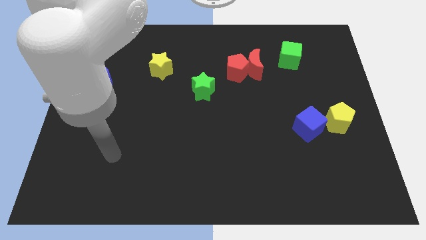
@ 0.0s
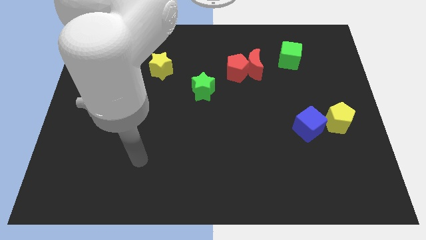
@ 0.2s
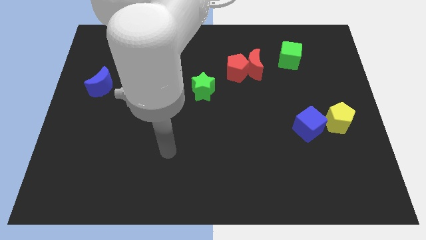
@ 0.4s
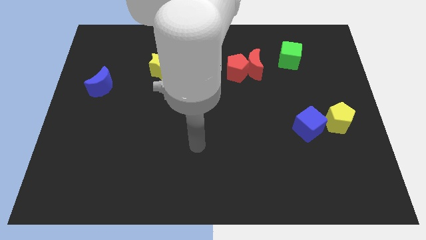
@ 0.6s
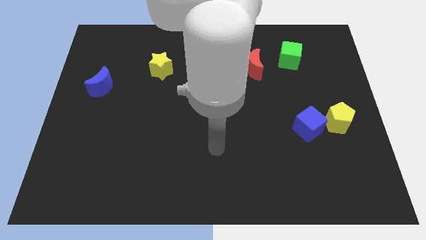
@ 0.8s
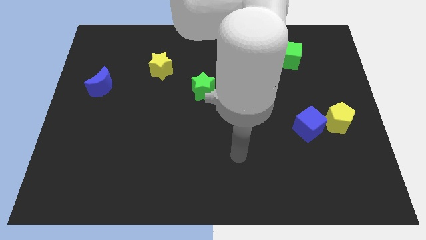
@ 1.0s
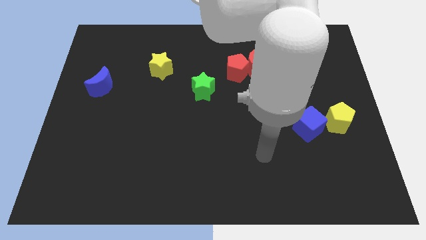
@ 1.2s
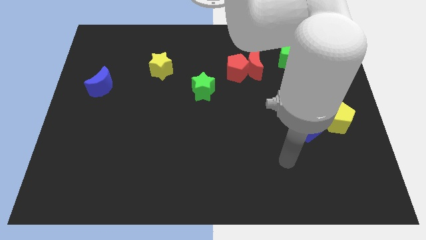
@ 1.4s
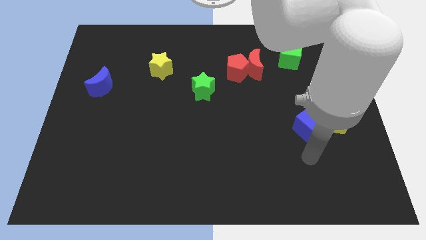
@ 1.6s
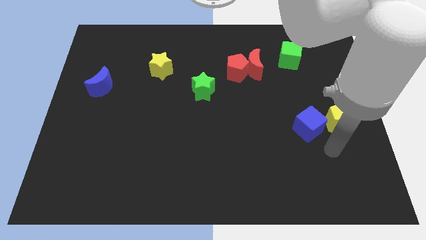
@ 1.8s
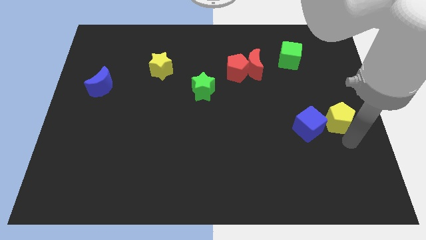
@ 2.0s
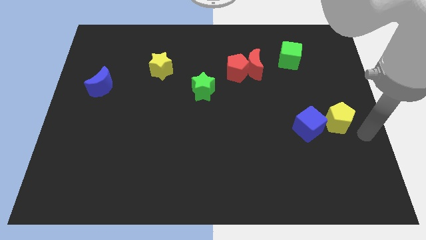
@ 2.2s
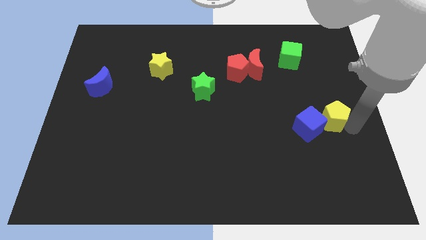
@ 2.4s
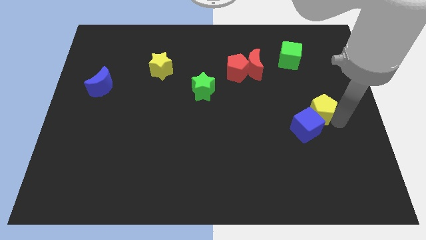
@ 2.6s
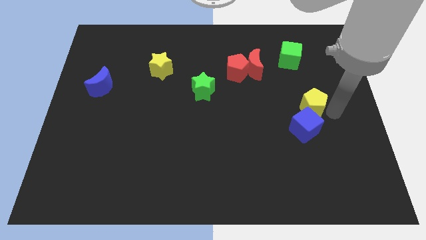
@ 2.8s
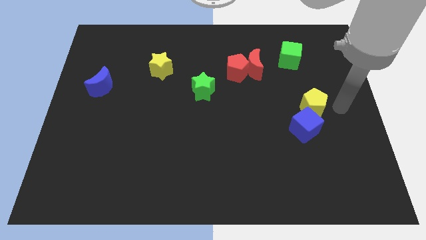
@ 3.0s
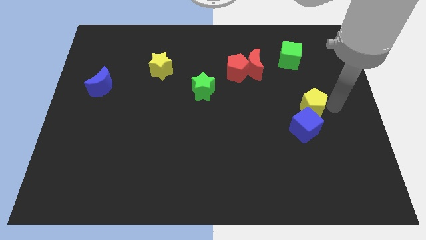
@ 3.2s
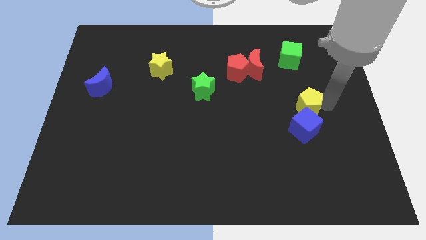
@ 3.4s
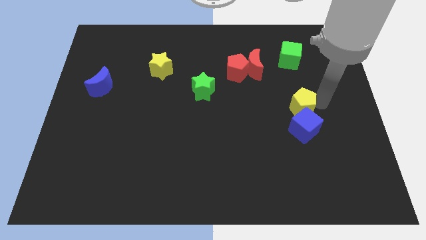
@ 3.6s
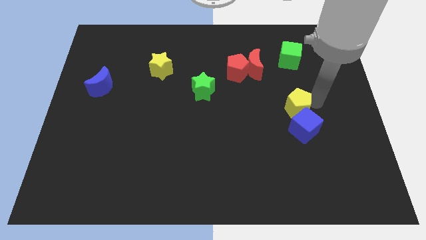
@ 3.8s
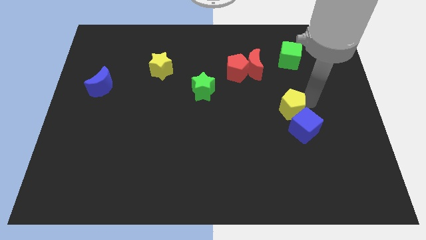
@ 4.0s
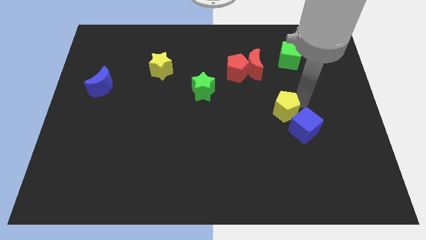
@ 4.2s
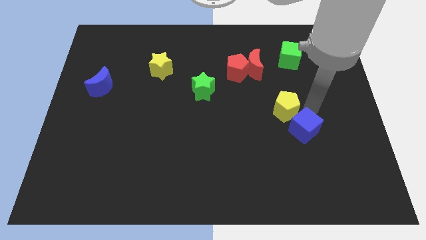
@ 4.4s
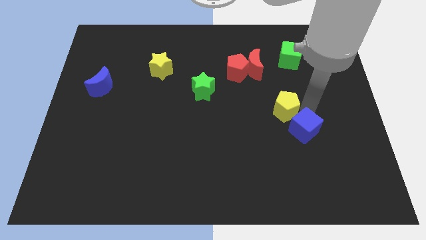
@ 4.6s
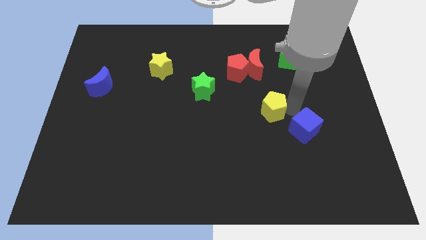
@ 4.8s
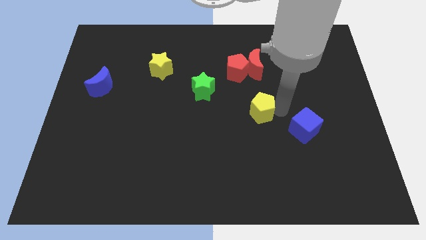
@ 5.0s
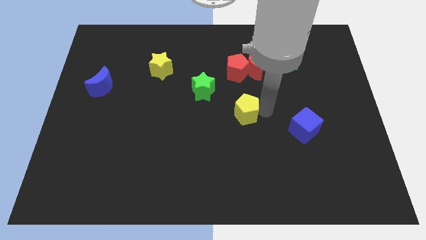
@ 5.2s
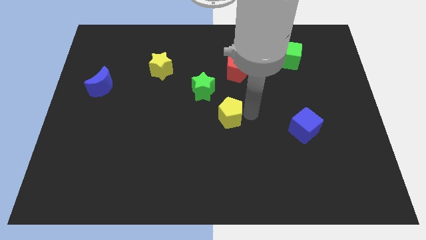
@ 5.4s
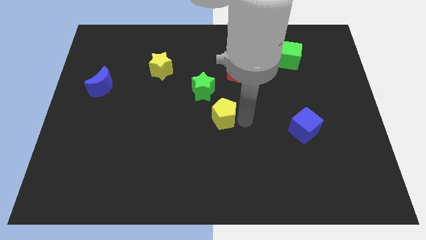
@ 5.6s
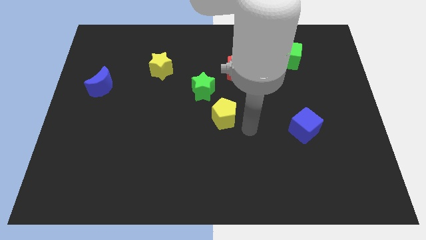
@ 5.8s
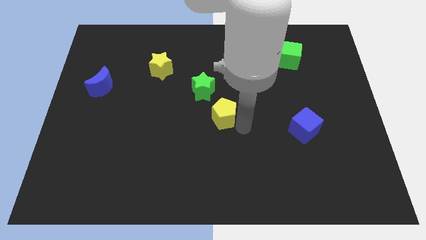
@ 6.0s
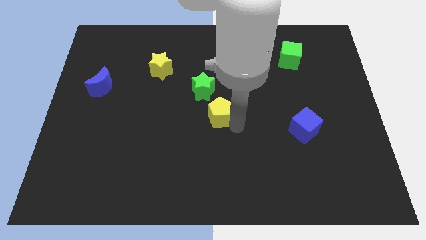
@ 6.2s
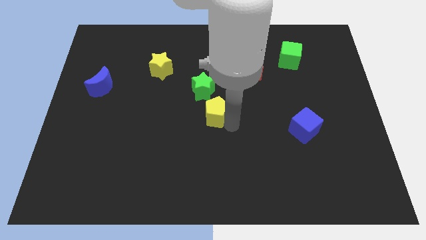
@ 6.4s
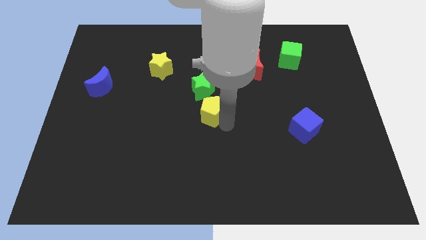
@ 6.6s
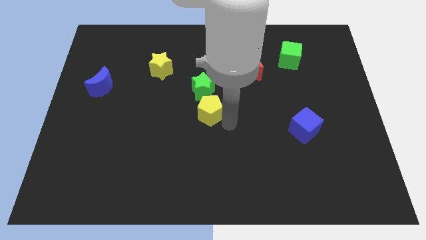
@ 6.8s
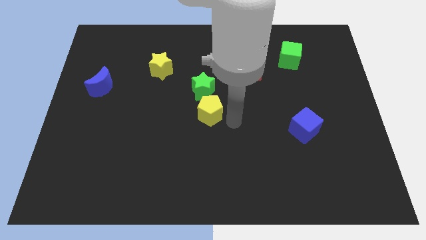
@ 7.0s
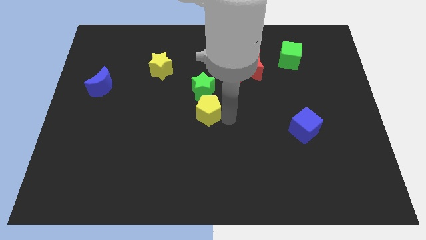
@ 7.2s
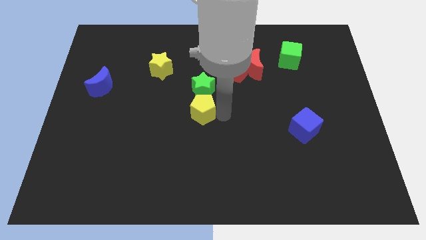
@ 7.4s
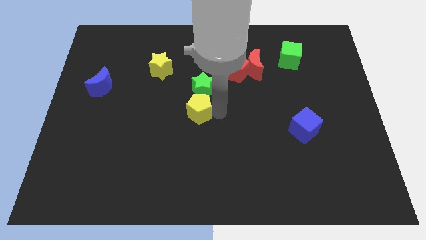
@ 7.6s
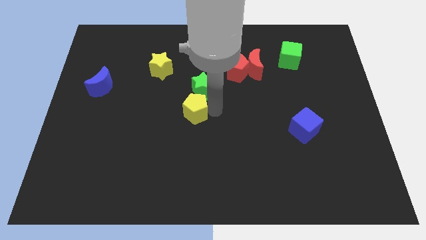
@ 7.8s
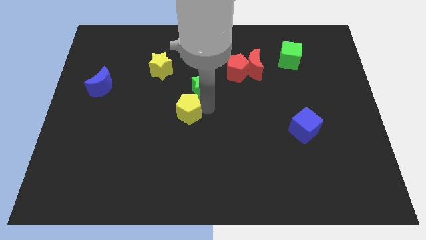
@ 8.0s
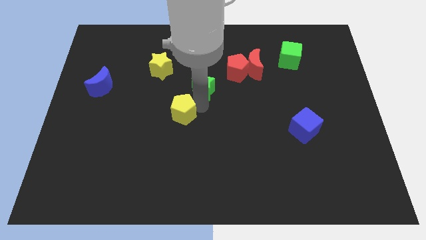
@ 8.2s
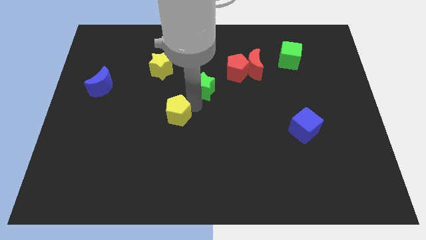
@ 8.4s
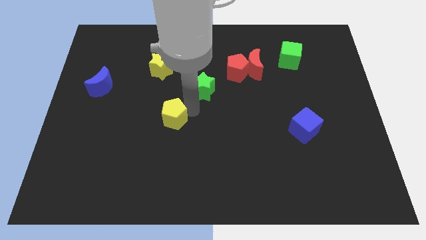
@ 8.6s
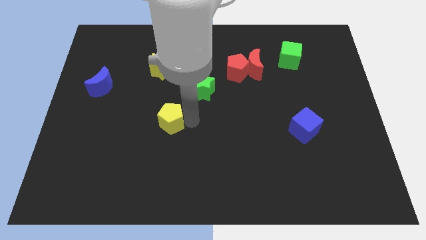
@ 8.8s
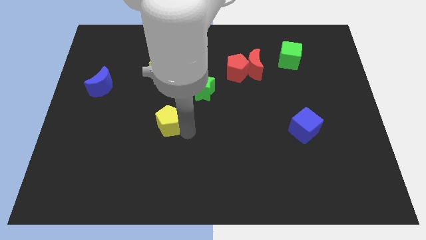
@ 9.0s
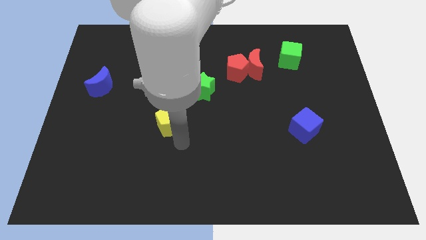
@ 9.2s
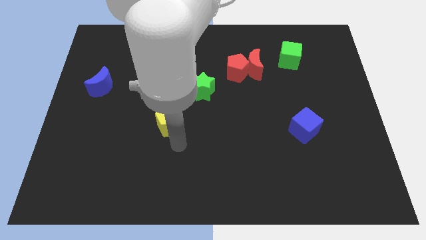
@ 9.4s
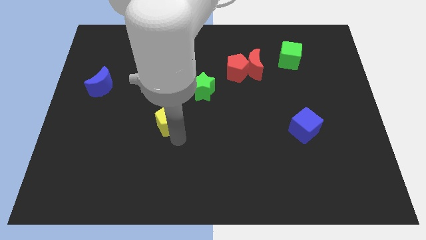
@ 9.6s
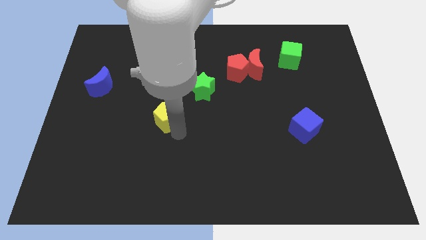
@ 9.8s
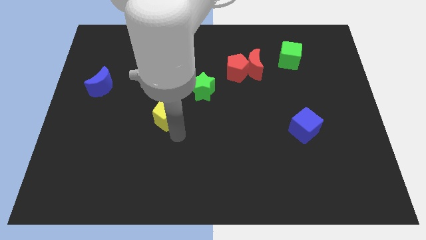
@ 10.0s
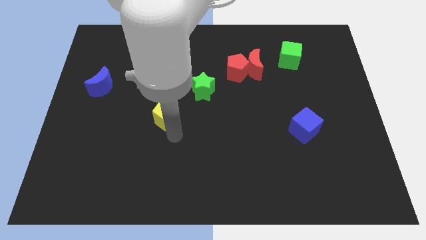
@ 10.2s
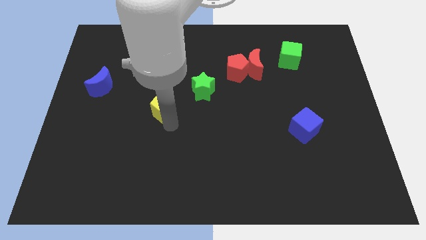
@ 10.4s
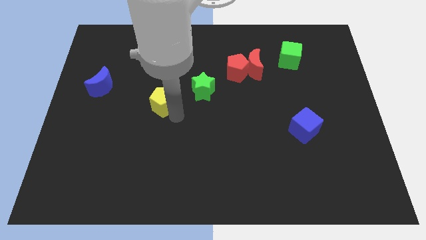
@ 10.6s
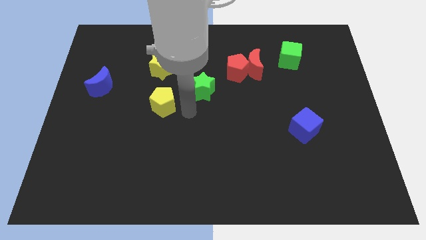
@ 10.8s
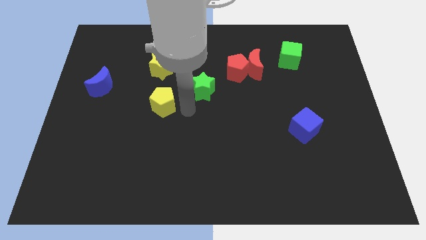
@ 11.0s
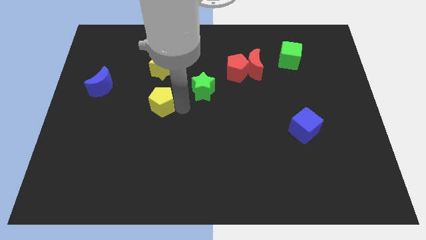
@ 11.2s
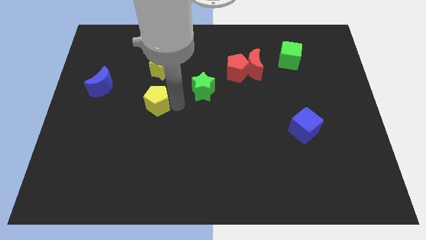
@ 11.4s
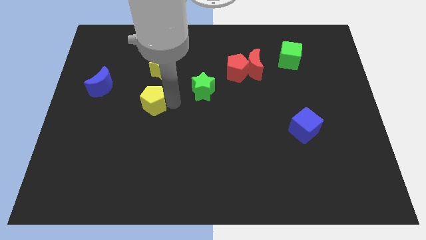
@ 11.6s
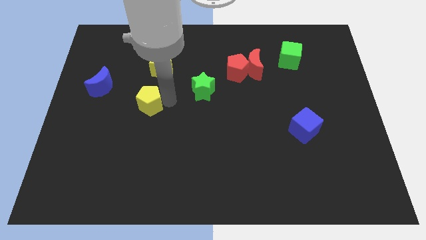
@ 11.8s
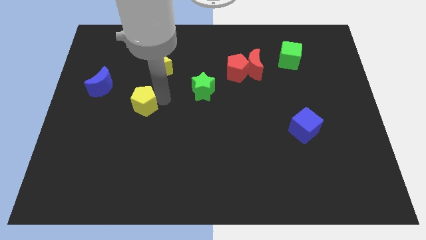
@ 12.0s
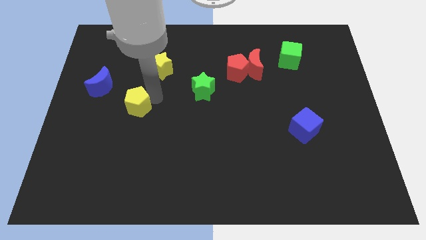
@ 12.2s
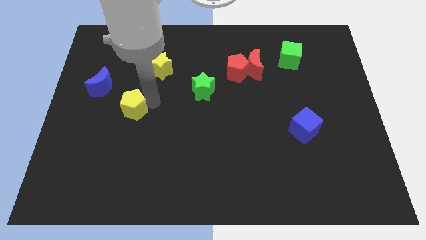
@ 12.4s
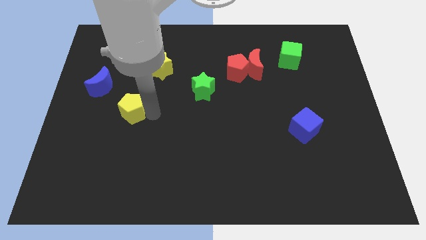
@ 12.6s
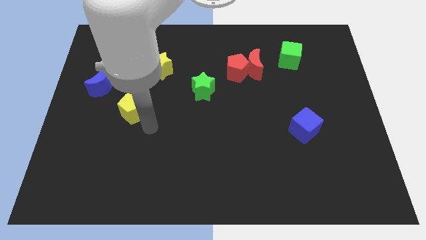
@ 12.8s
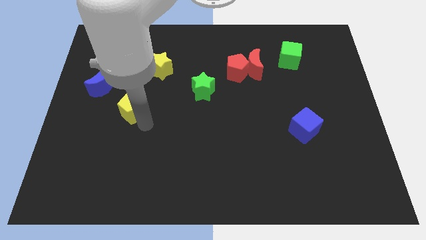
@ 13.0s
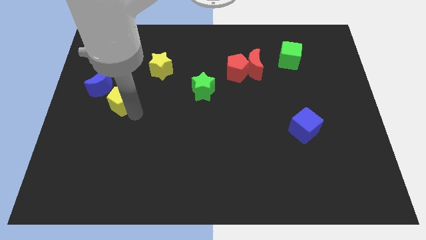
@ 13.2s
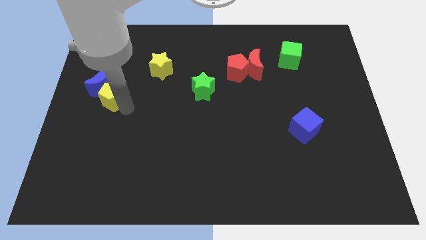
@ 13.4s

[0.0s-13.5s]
put the yellow pentagon towards the blue moon
